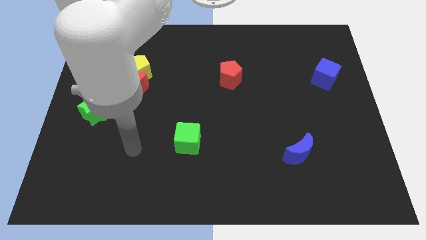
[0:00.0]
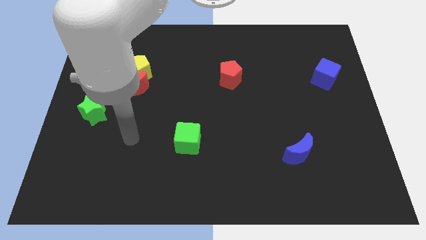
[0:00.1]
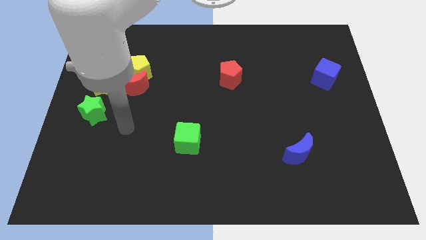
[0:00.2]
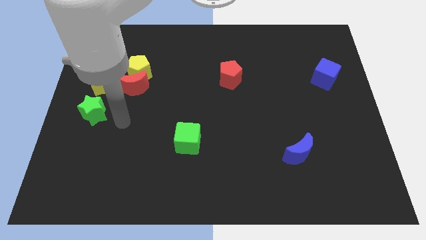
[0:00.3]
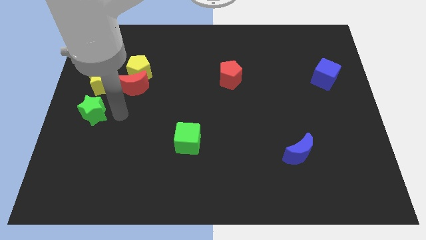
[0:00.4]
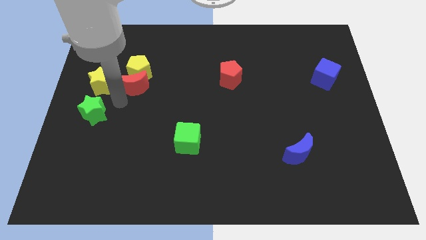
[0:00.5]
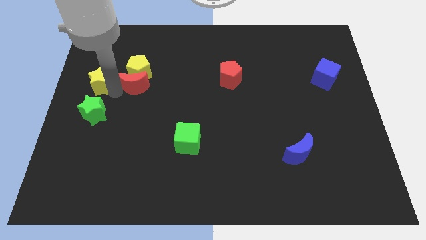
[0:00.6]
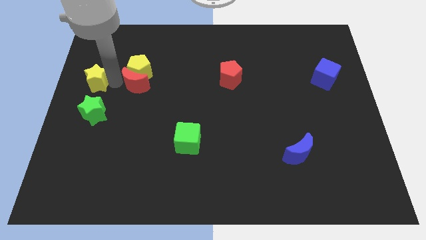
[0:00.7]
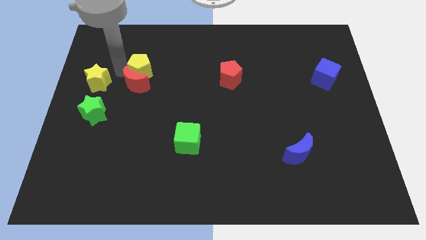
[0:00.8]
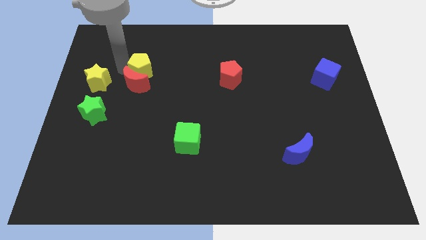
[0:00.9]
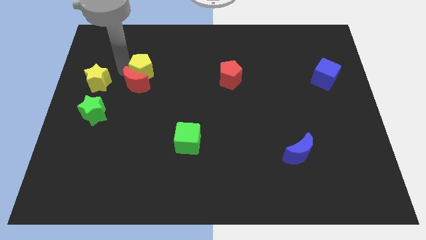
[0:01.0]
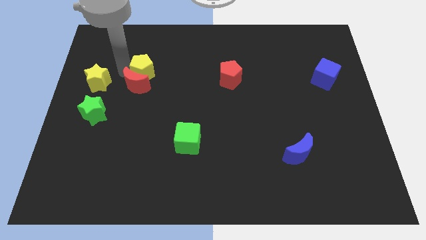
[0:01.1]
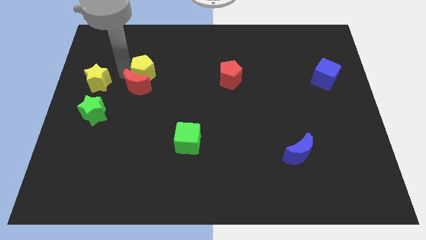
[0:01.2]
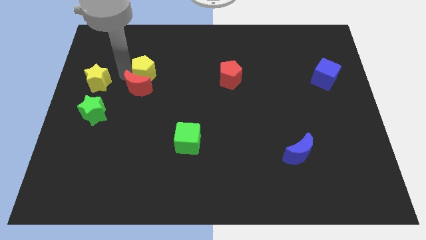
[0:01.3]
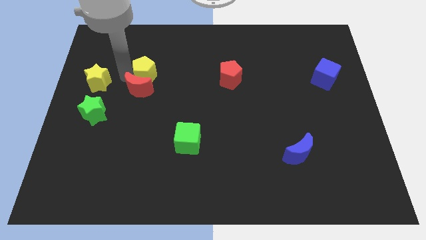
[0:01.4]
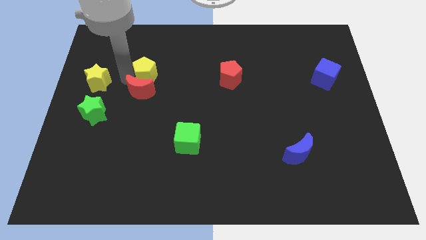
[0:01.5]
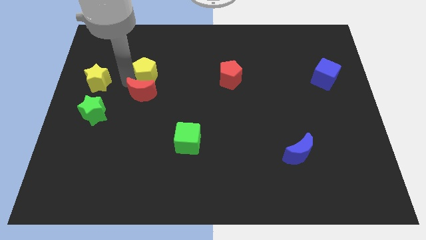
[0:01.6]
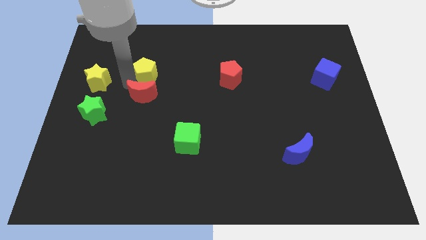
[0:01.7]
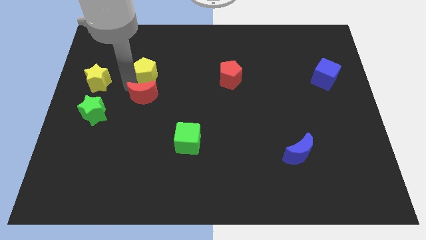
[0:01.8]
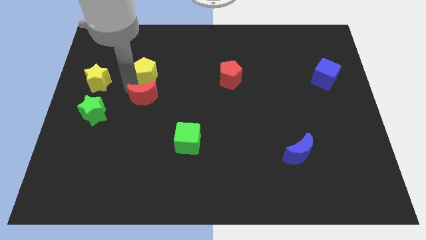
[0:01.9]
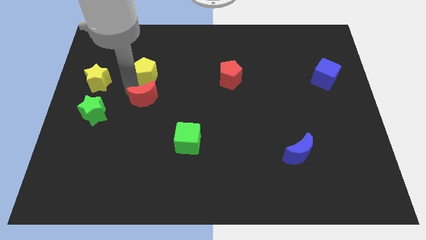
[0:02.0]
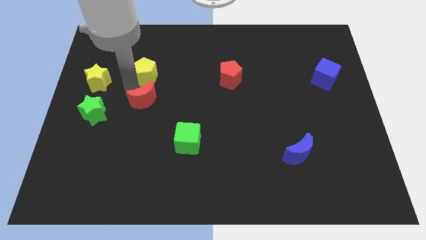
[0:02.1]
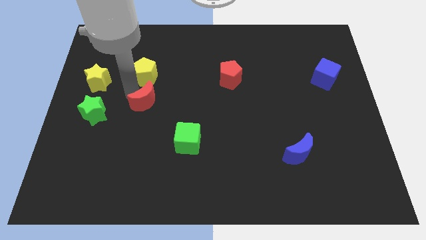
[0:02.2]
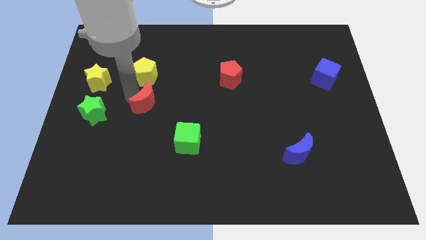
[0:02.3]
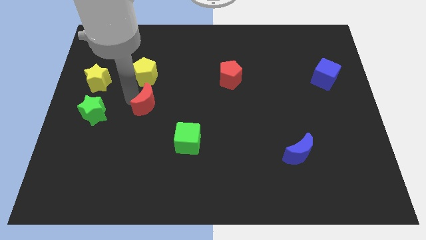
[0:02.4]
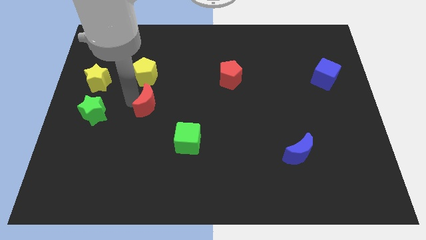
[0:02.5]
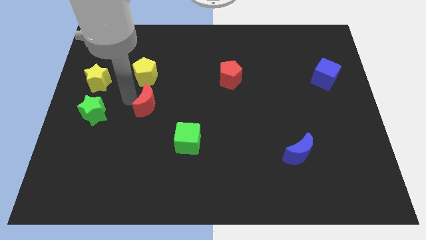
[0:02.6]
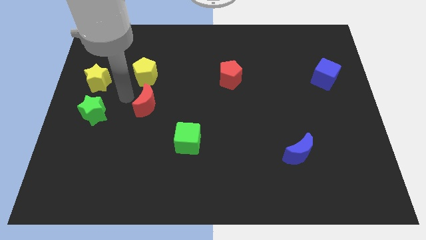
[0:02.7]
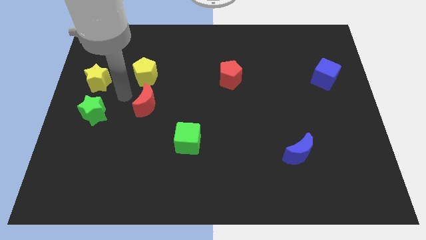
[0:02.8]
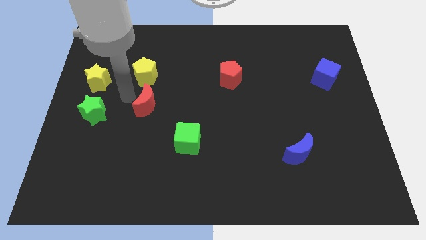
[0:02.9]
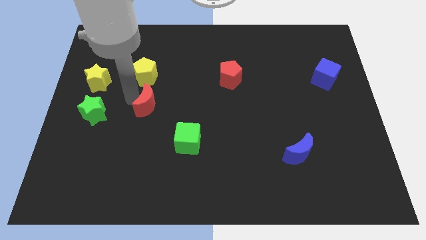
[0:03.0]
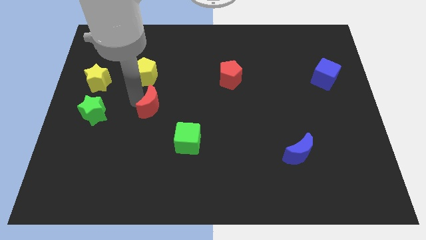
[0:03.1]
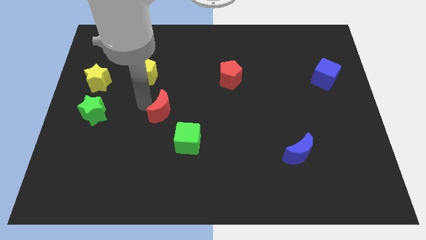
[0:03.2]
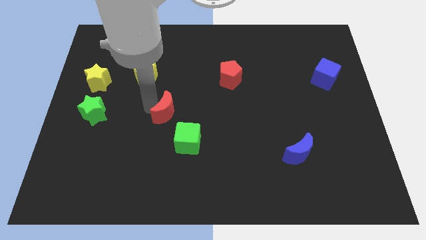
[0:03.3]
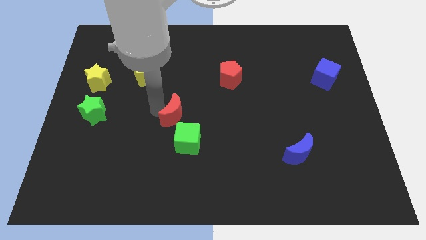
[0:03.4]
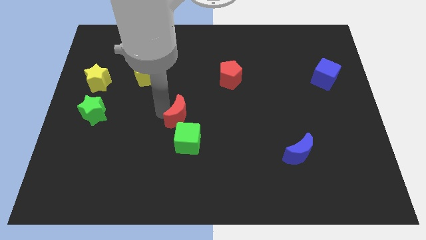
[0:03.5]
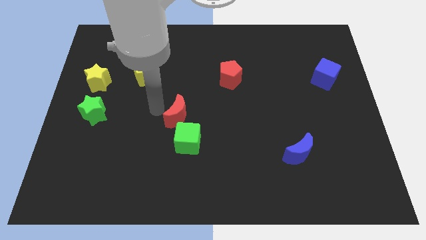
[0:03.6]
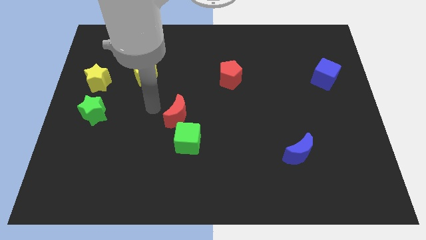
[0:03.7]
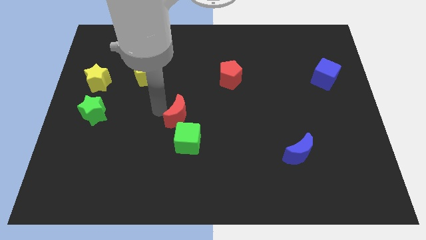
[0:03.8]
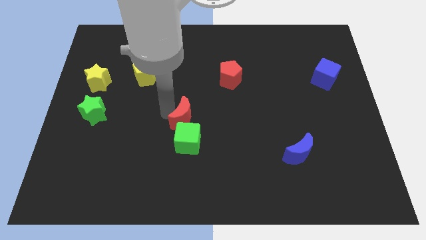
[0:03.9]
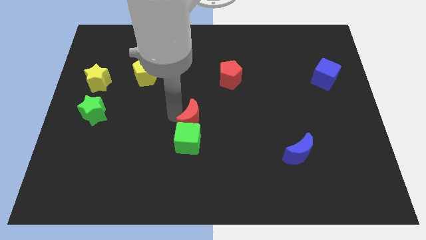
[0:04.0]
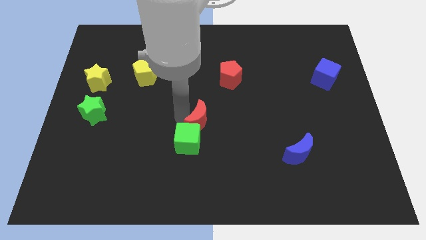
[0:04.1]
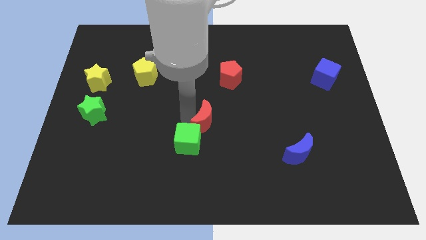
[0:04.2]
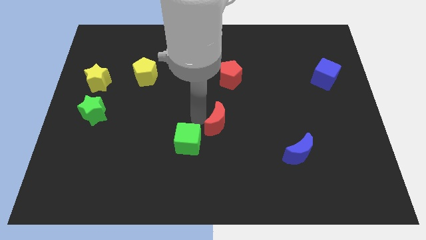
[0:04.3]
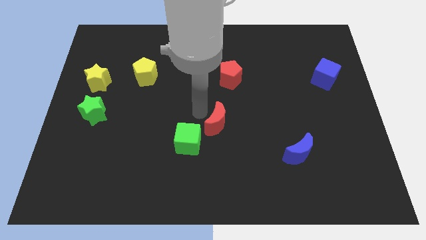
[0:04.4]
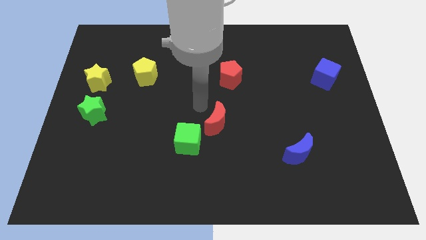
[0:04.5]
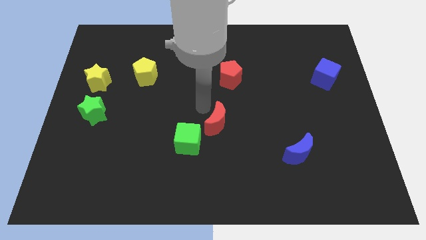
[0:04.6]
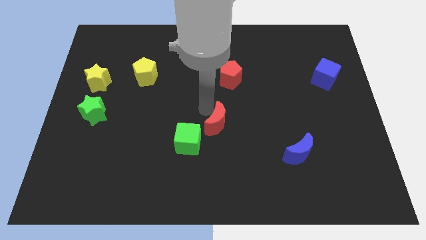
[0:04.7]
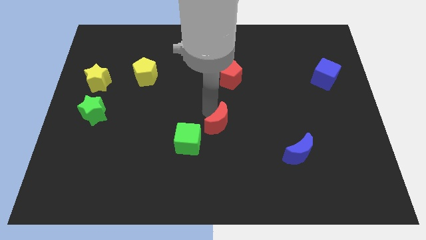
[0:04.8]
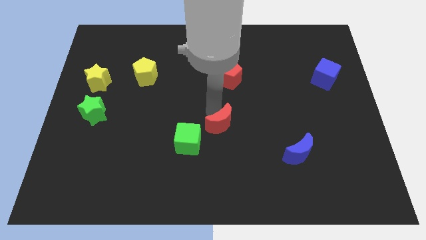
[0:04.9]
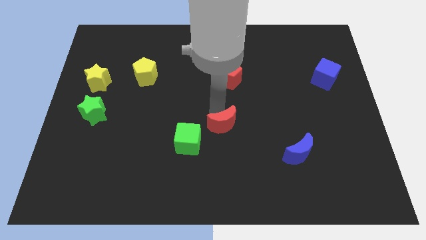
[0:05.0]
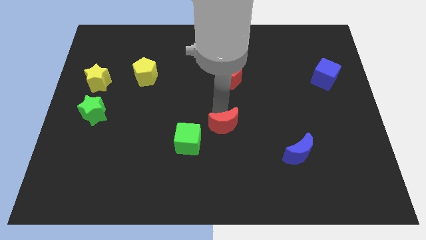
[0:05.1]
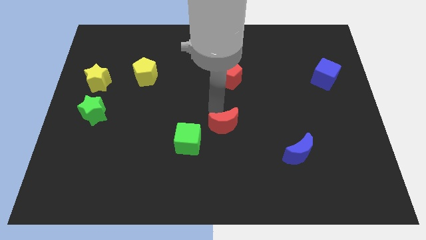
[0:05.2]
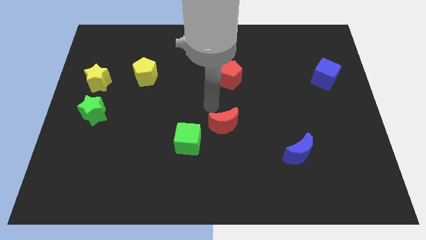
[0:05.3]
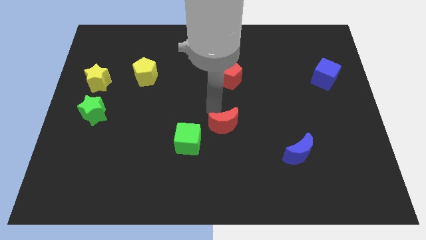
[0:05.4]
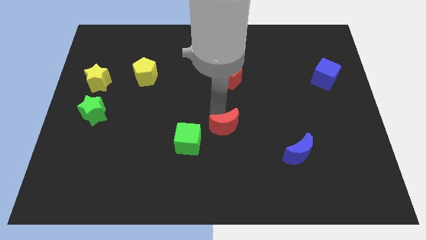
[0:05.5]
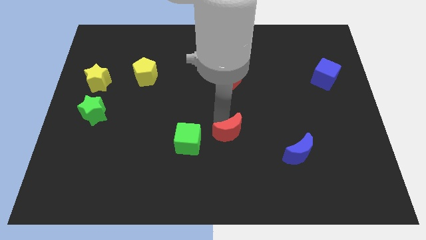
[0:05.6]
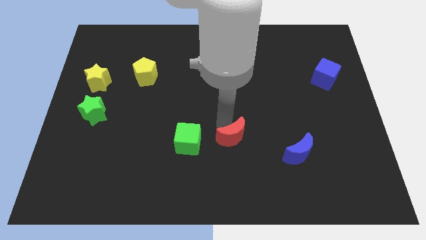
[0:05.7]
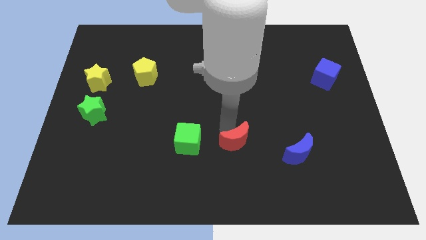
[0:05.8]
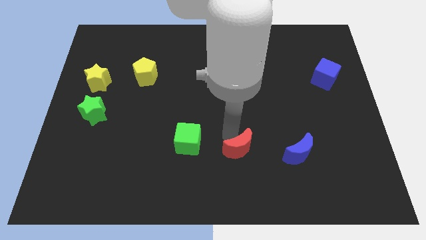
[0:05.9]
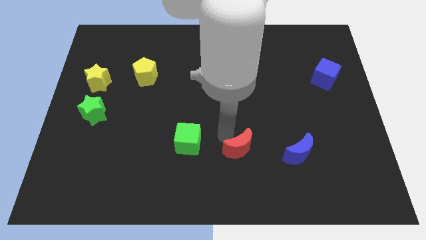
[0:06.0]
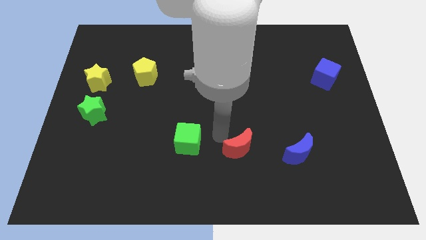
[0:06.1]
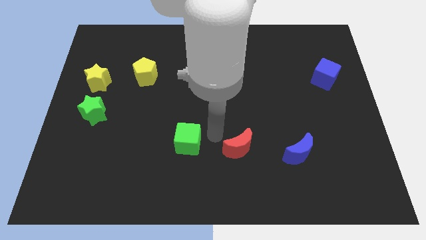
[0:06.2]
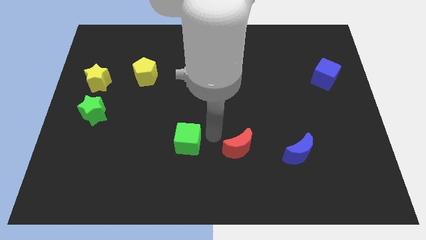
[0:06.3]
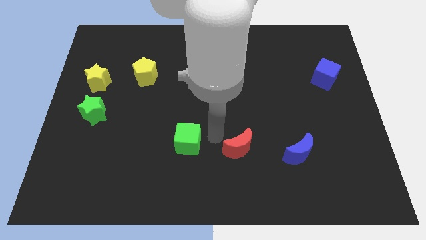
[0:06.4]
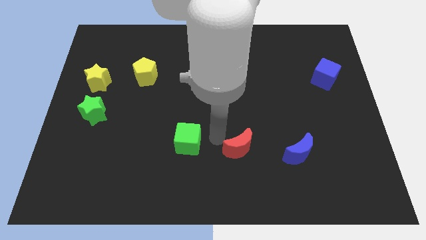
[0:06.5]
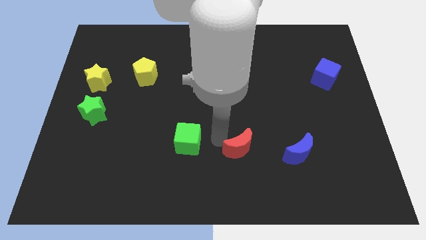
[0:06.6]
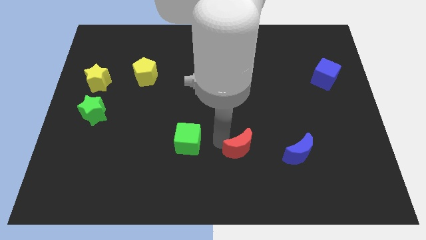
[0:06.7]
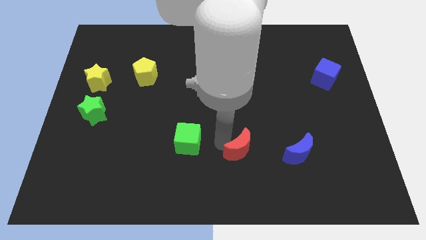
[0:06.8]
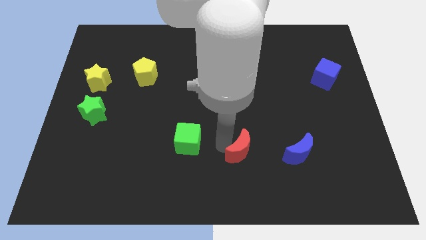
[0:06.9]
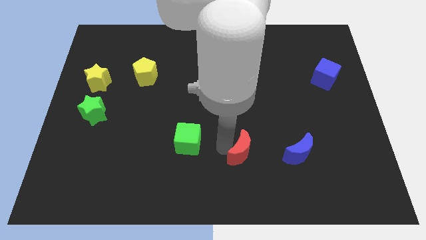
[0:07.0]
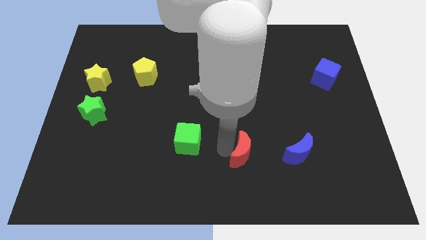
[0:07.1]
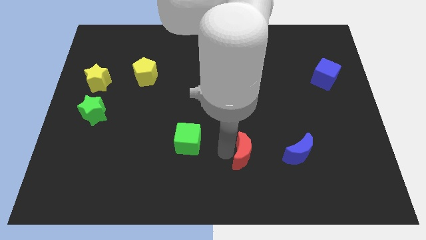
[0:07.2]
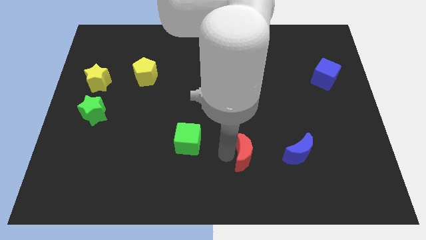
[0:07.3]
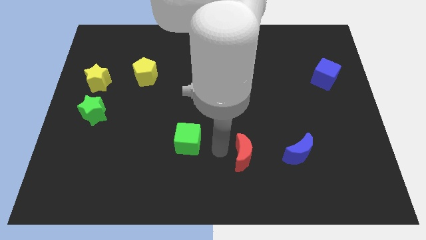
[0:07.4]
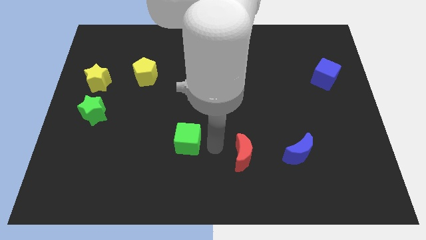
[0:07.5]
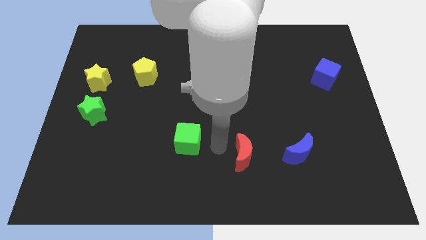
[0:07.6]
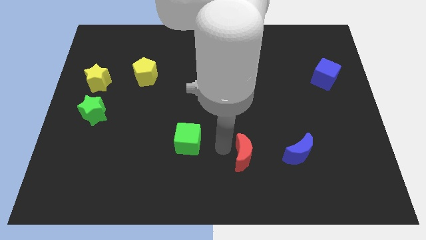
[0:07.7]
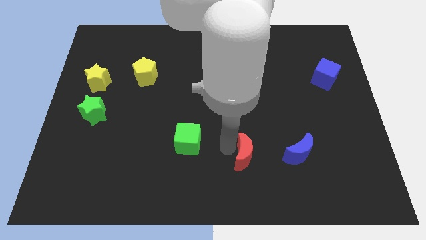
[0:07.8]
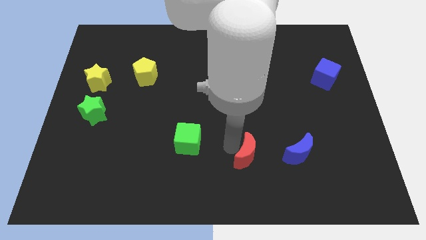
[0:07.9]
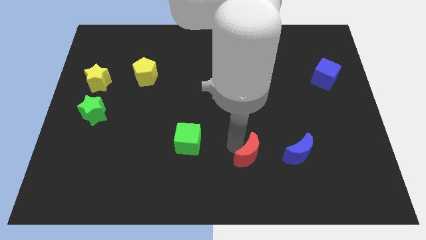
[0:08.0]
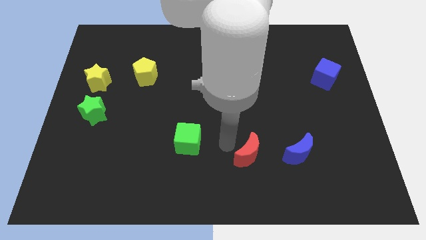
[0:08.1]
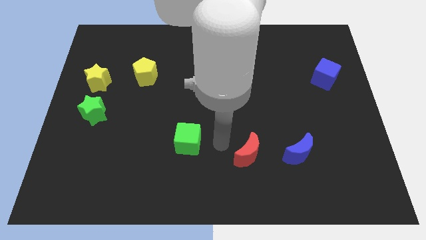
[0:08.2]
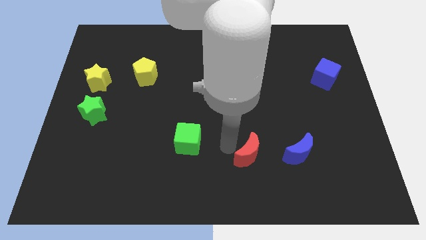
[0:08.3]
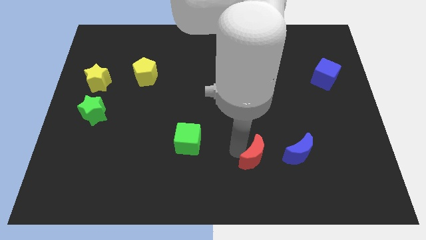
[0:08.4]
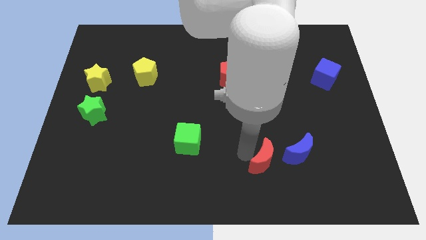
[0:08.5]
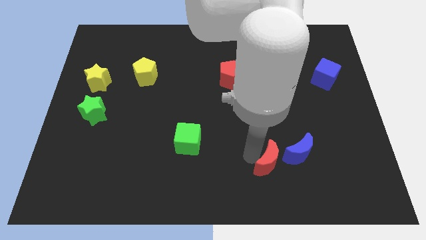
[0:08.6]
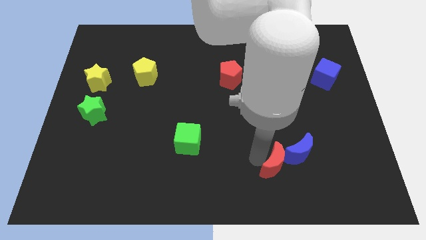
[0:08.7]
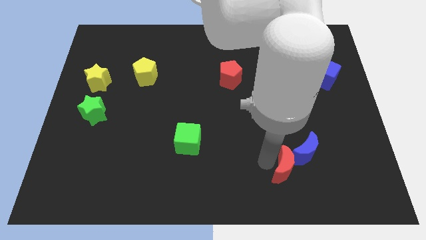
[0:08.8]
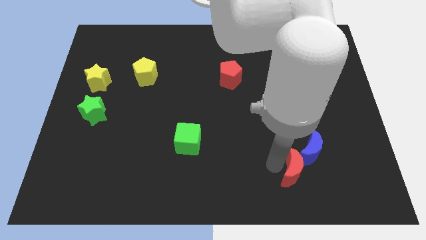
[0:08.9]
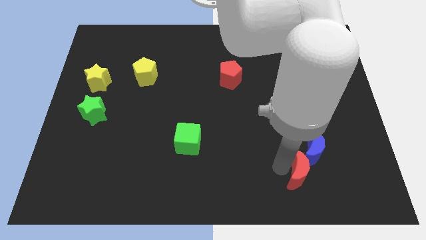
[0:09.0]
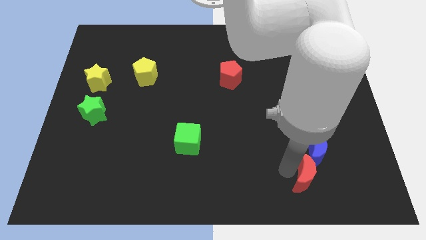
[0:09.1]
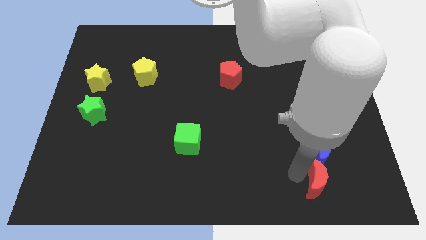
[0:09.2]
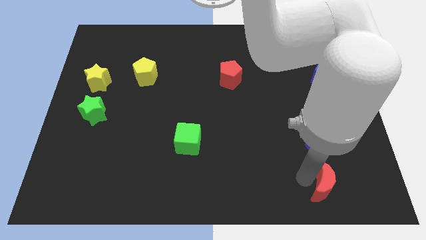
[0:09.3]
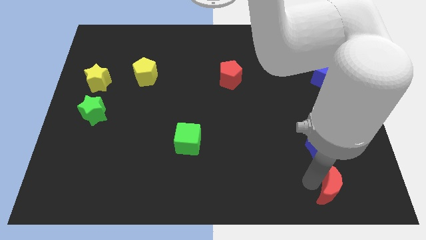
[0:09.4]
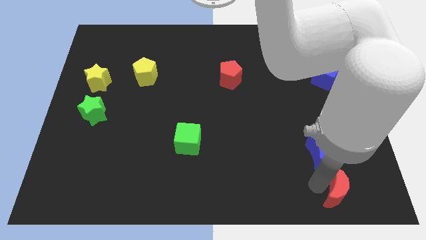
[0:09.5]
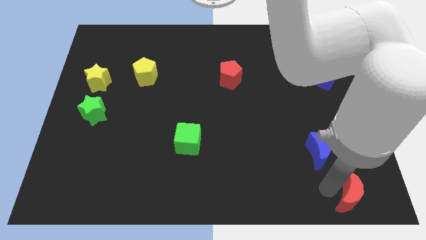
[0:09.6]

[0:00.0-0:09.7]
put the red moon to the bottom right of the board
